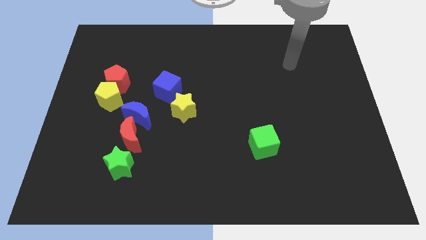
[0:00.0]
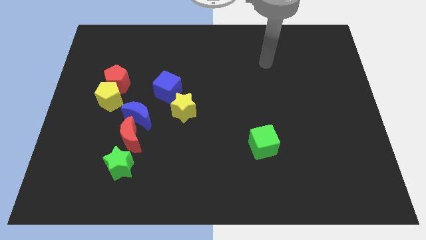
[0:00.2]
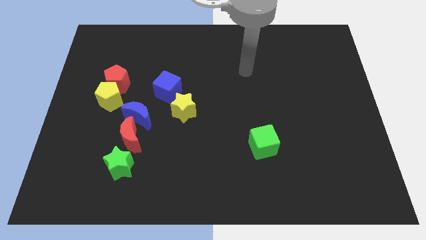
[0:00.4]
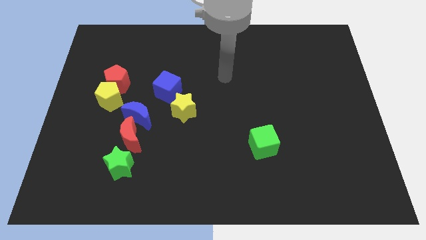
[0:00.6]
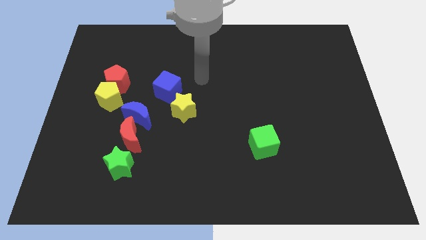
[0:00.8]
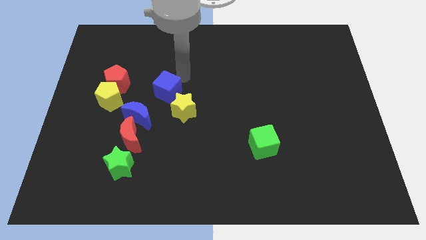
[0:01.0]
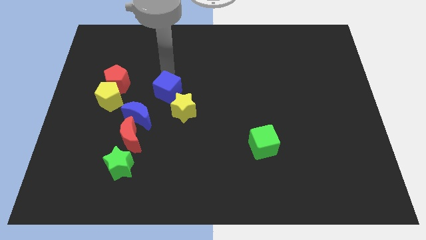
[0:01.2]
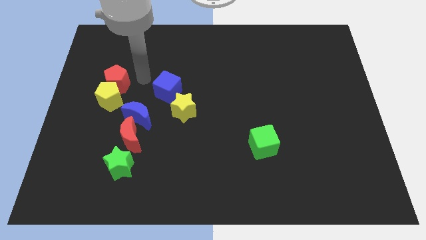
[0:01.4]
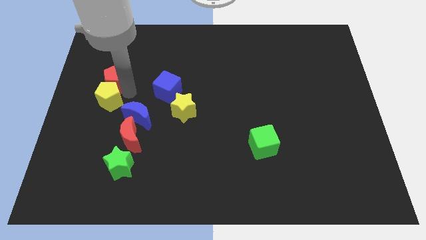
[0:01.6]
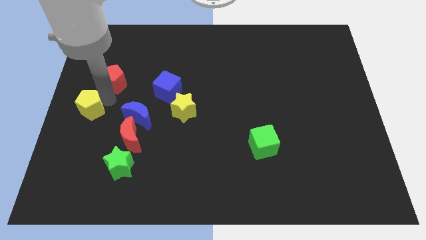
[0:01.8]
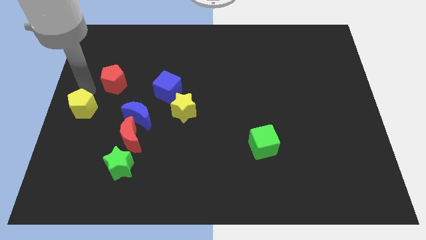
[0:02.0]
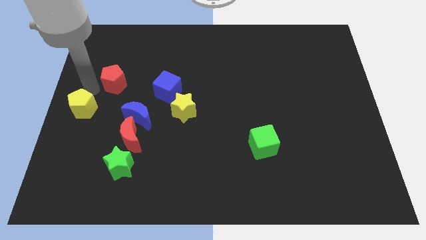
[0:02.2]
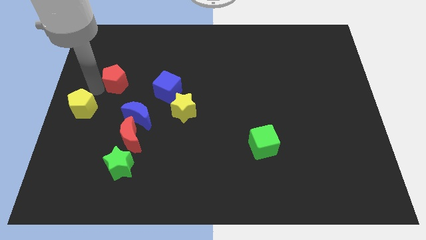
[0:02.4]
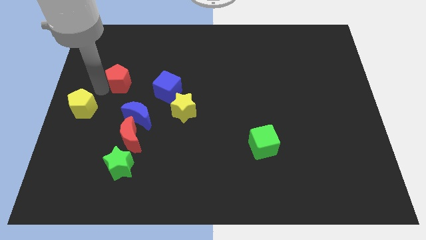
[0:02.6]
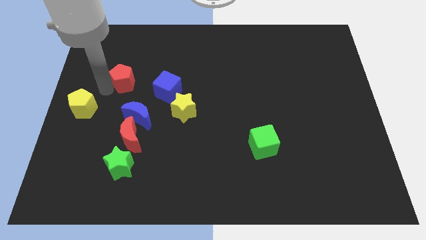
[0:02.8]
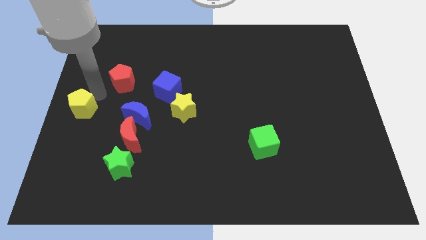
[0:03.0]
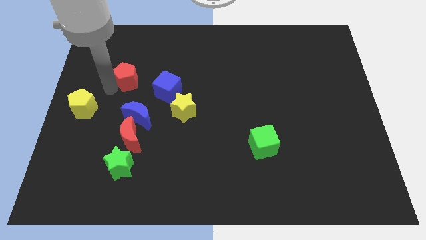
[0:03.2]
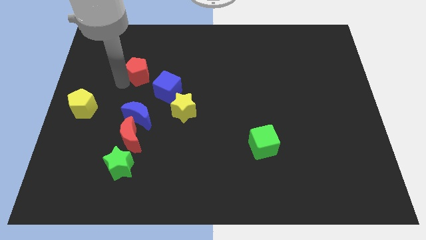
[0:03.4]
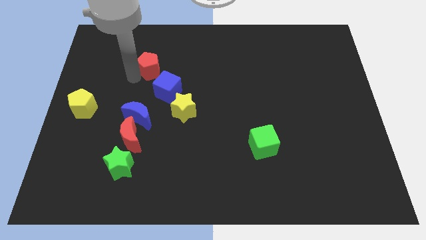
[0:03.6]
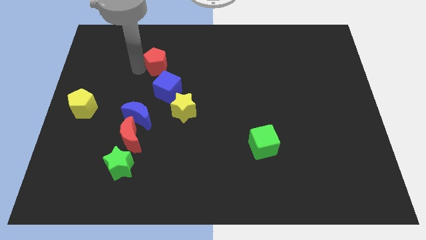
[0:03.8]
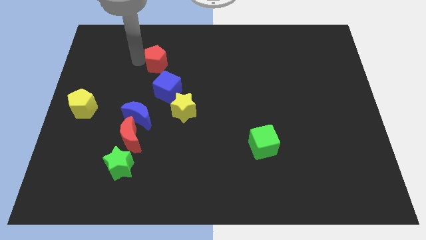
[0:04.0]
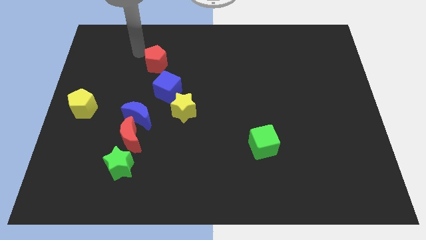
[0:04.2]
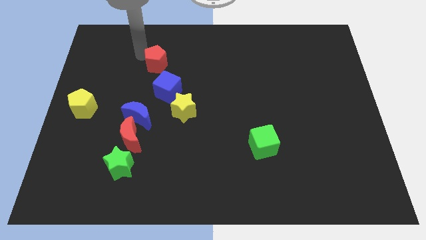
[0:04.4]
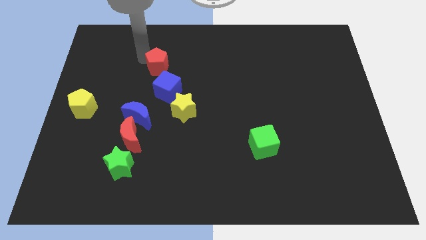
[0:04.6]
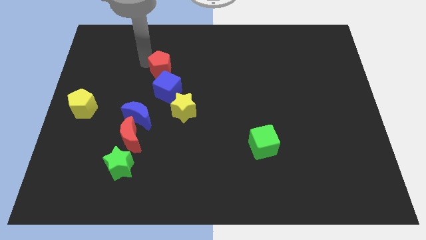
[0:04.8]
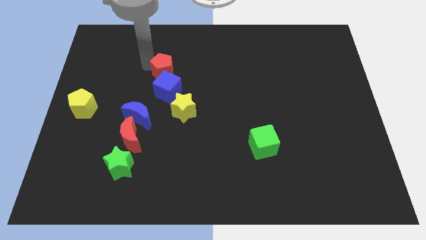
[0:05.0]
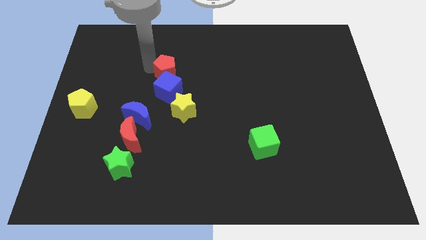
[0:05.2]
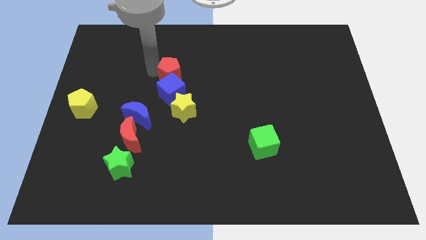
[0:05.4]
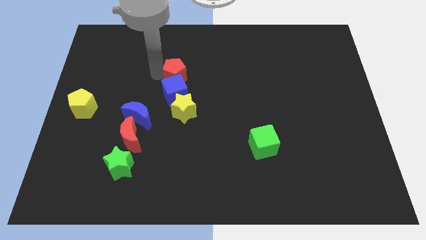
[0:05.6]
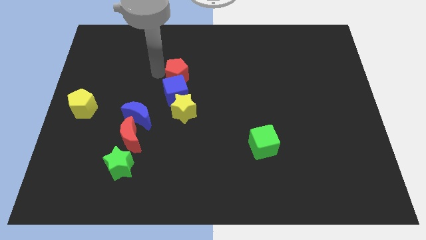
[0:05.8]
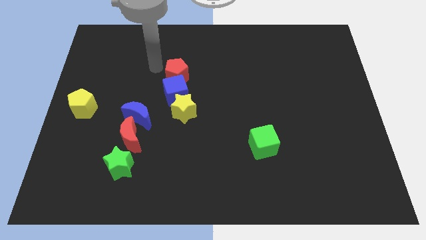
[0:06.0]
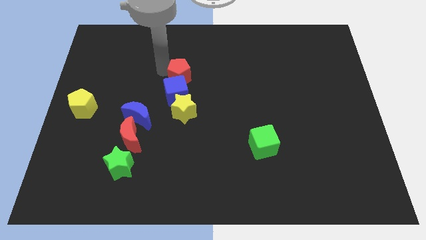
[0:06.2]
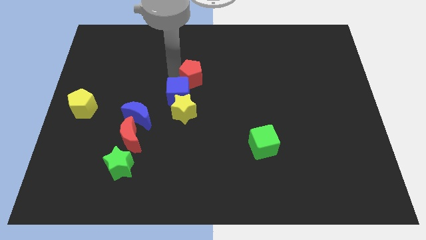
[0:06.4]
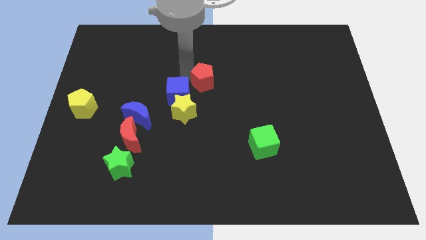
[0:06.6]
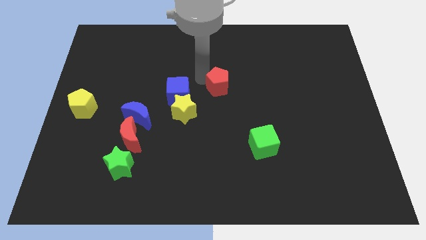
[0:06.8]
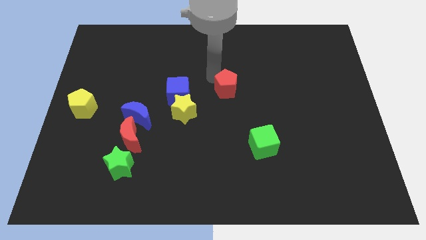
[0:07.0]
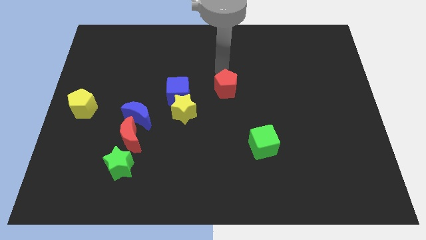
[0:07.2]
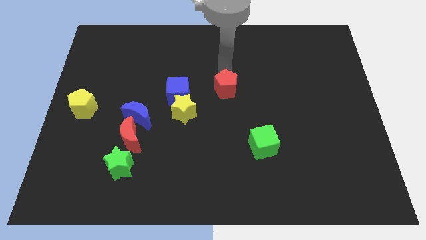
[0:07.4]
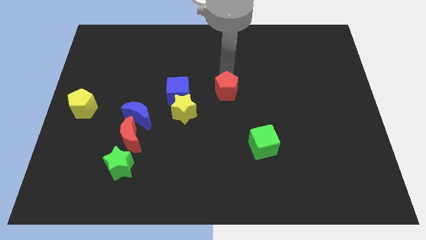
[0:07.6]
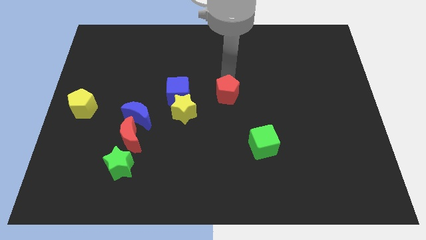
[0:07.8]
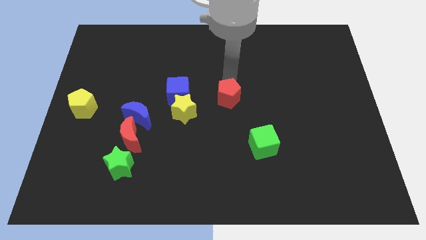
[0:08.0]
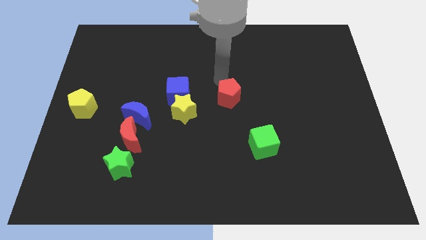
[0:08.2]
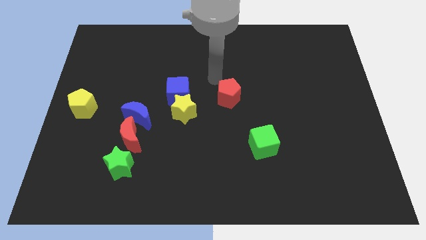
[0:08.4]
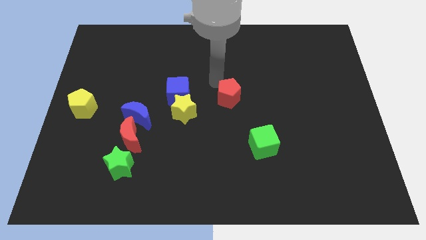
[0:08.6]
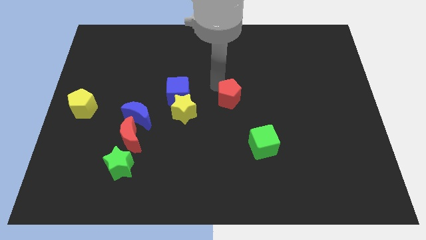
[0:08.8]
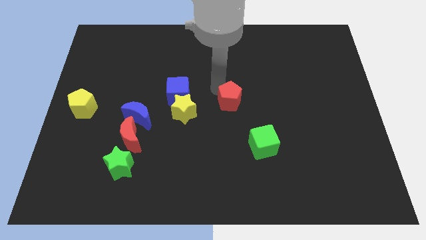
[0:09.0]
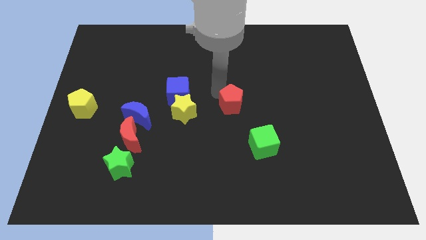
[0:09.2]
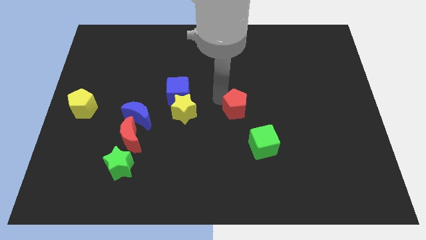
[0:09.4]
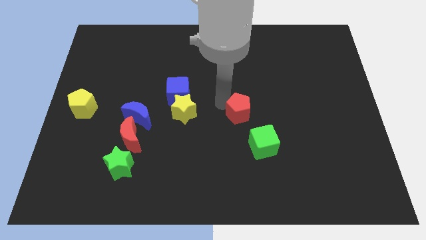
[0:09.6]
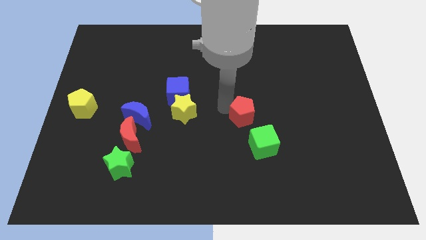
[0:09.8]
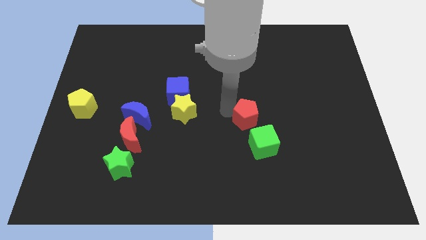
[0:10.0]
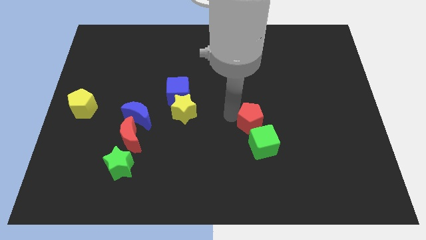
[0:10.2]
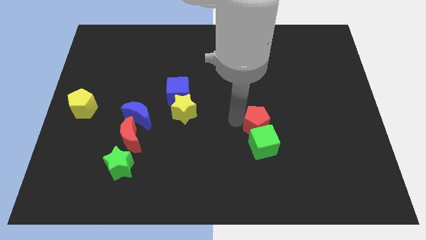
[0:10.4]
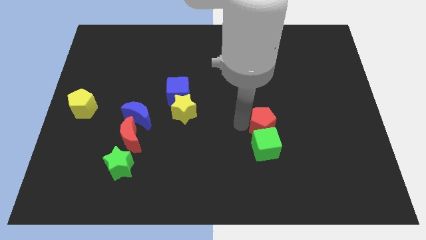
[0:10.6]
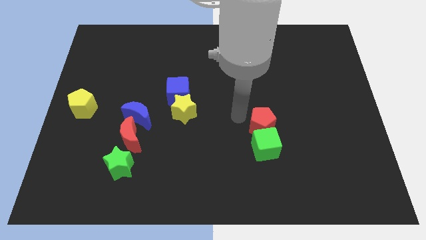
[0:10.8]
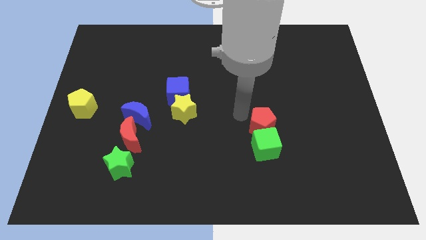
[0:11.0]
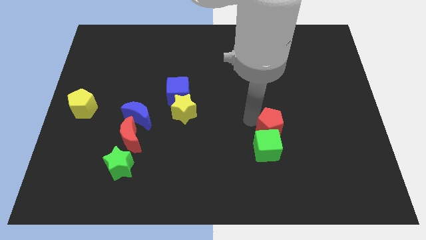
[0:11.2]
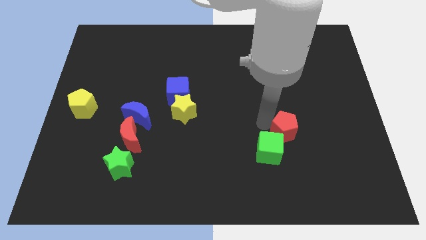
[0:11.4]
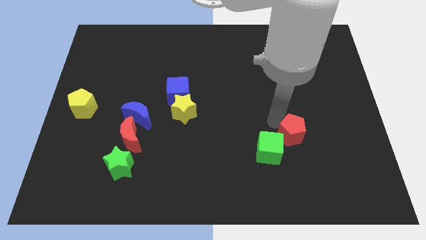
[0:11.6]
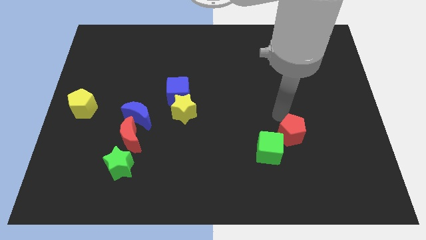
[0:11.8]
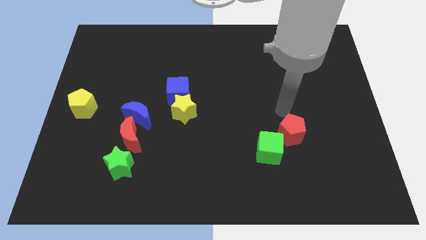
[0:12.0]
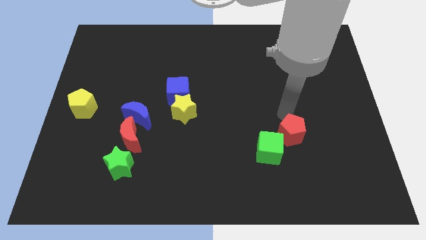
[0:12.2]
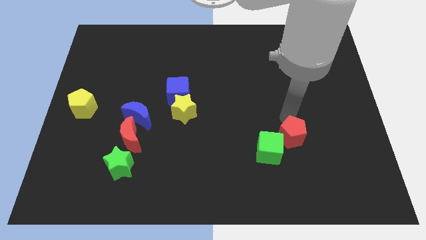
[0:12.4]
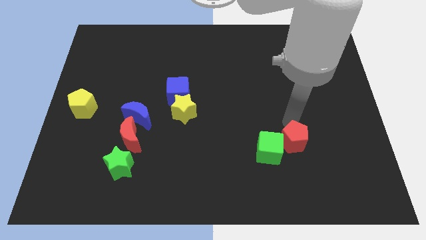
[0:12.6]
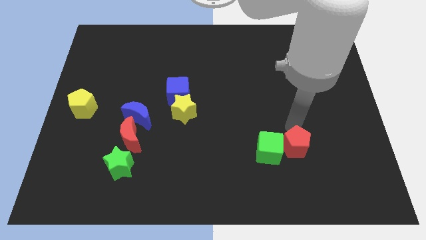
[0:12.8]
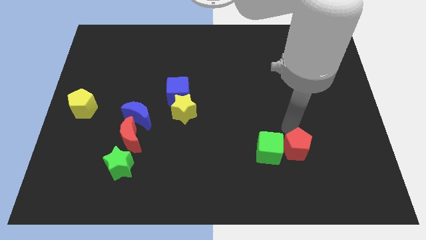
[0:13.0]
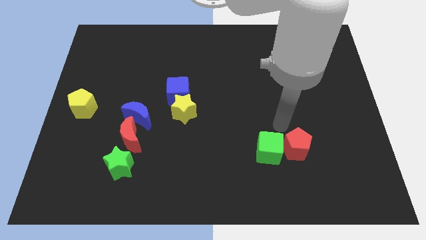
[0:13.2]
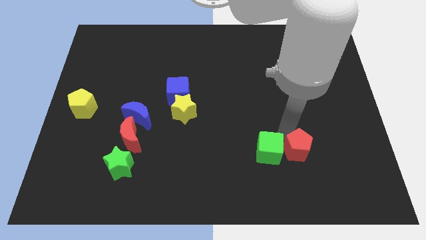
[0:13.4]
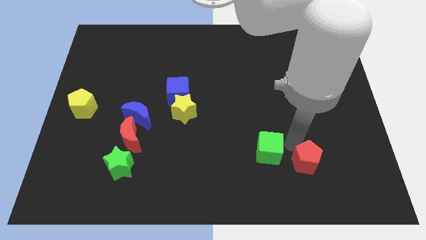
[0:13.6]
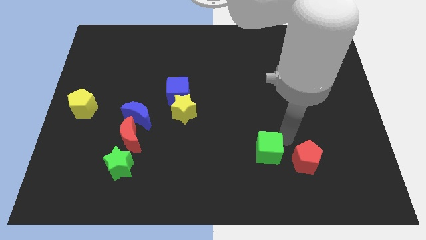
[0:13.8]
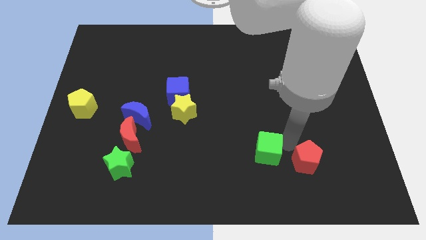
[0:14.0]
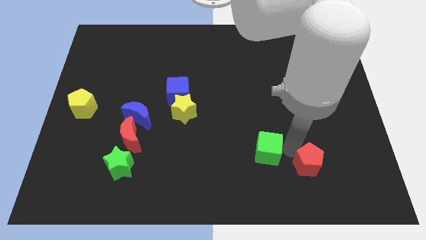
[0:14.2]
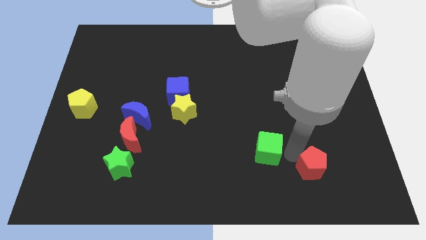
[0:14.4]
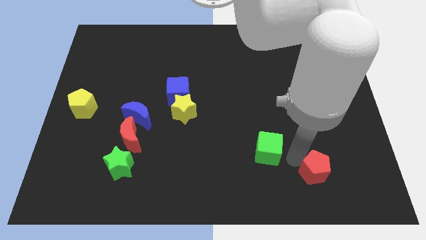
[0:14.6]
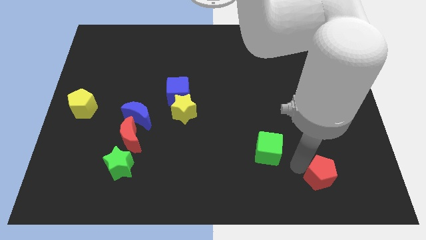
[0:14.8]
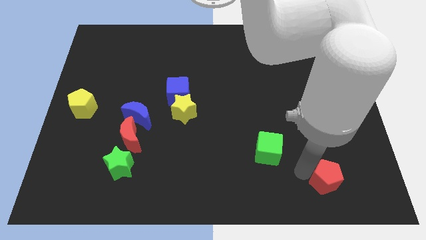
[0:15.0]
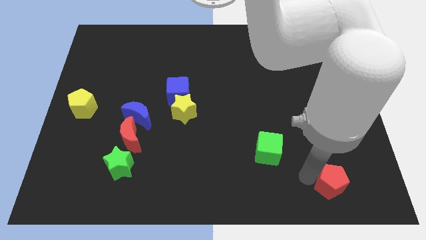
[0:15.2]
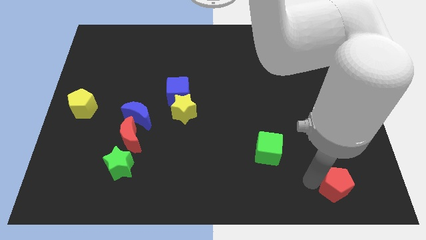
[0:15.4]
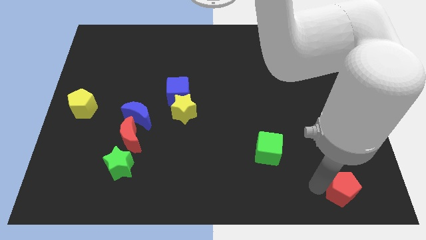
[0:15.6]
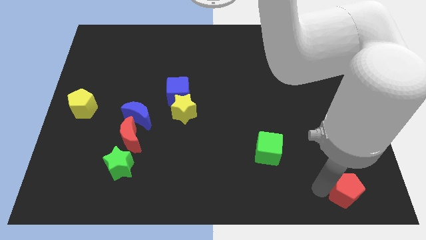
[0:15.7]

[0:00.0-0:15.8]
slide the red pentagon to the bottom right corner
